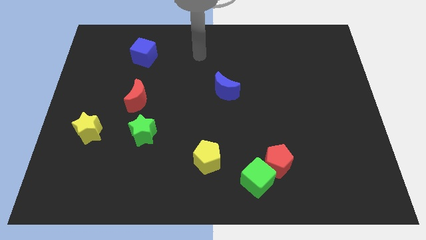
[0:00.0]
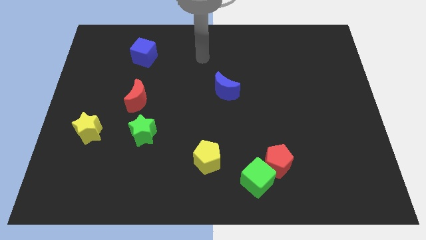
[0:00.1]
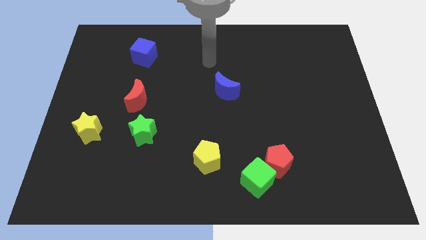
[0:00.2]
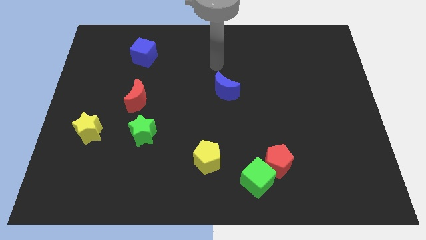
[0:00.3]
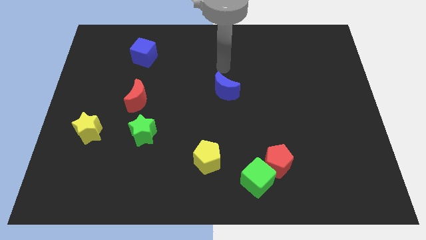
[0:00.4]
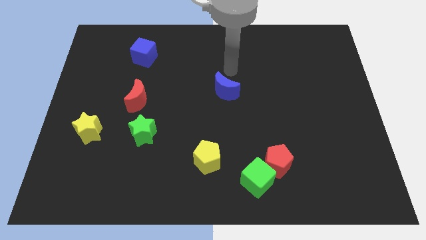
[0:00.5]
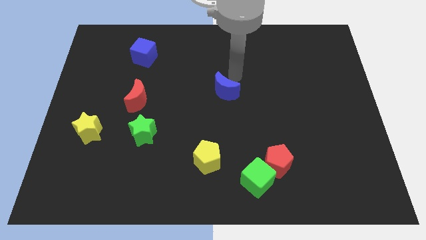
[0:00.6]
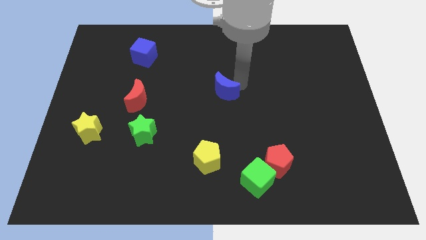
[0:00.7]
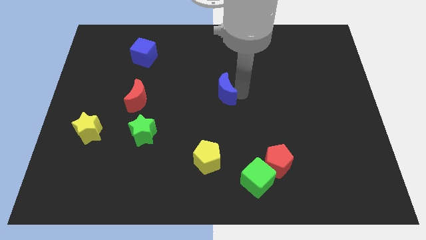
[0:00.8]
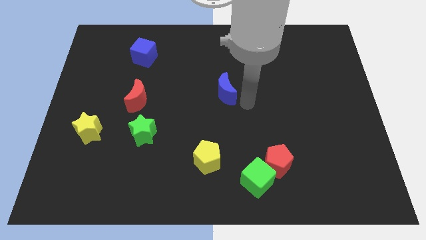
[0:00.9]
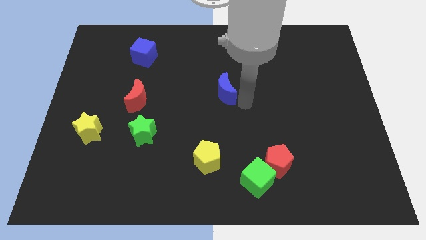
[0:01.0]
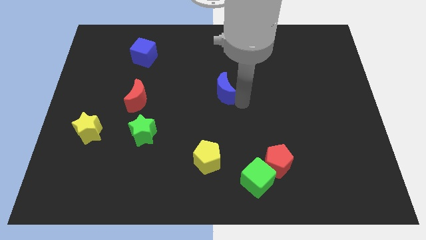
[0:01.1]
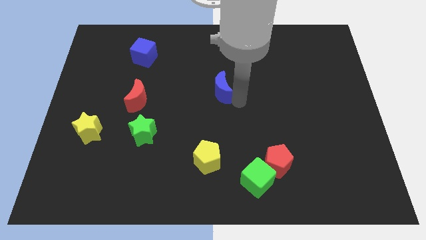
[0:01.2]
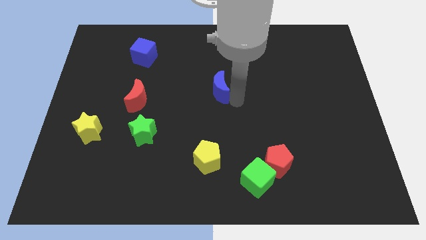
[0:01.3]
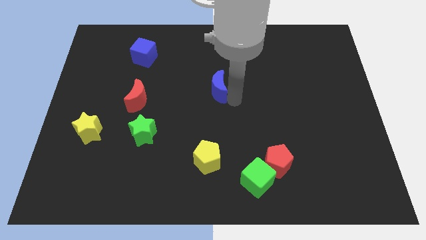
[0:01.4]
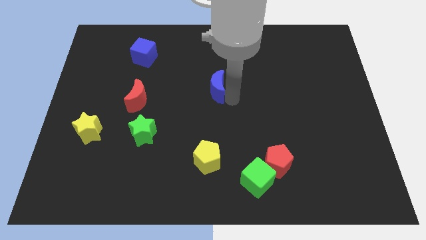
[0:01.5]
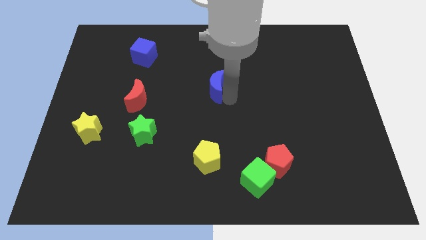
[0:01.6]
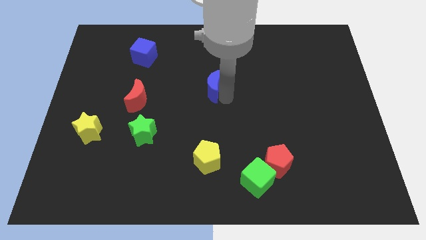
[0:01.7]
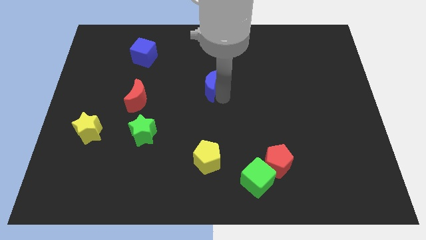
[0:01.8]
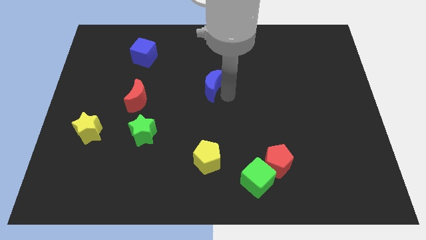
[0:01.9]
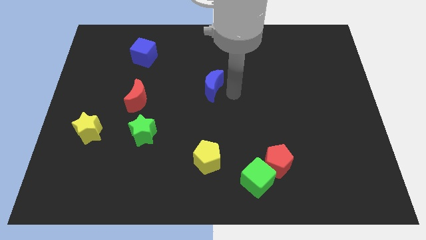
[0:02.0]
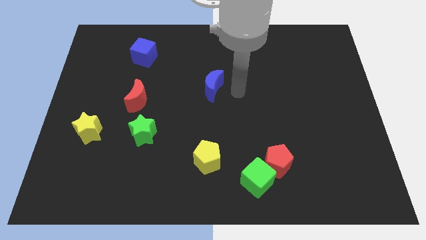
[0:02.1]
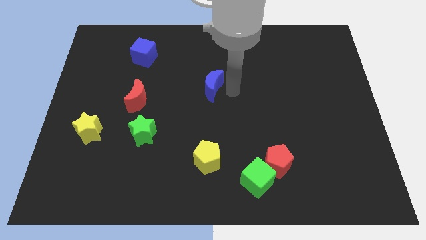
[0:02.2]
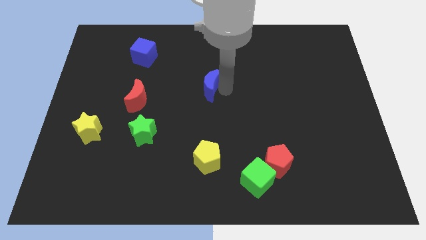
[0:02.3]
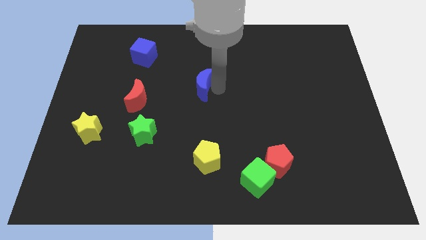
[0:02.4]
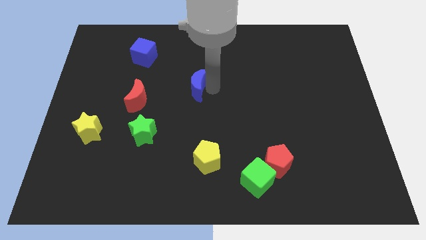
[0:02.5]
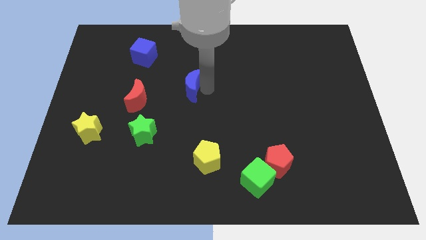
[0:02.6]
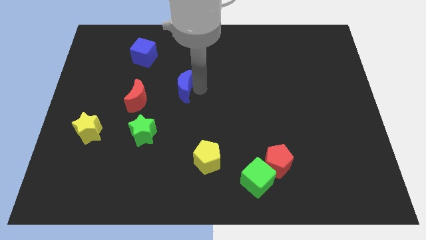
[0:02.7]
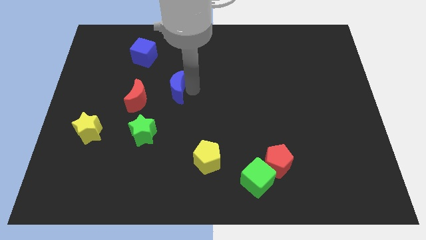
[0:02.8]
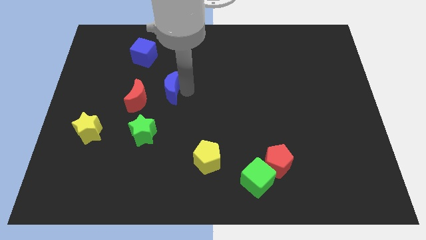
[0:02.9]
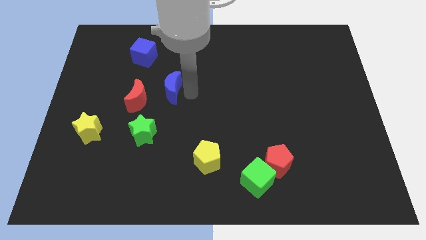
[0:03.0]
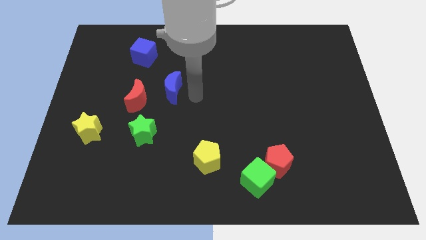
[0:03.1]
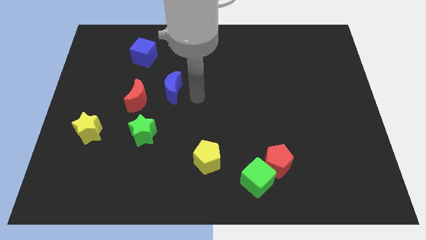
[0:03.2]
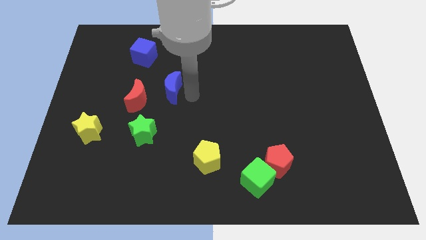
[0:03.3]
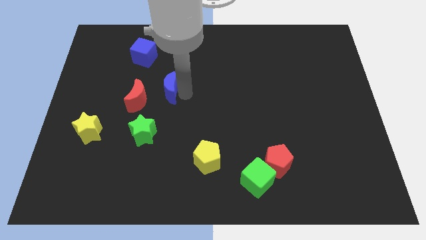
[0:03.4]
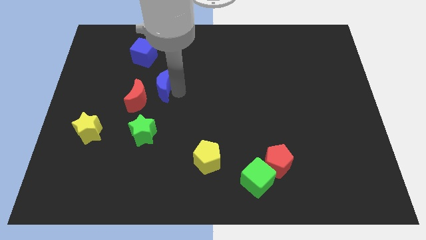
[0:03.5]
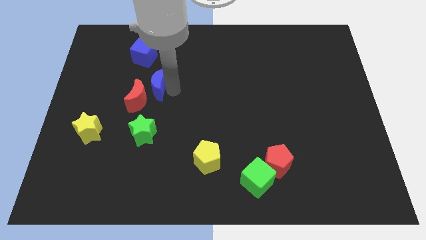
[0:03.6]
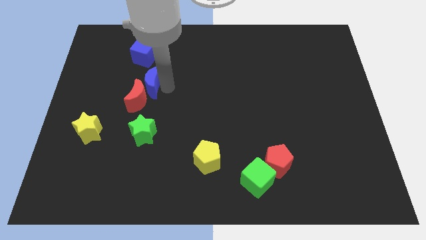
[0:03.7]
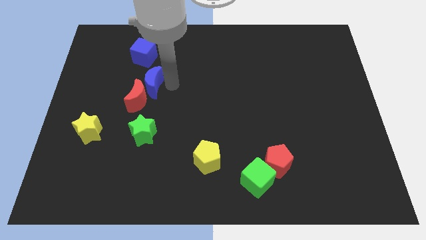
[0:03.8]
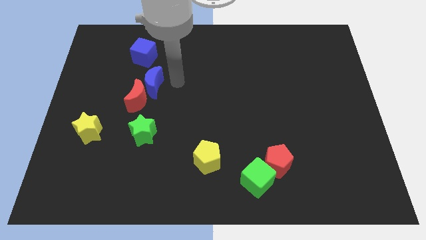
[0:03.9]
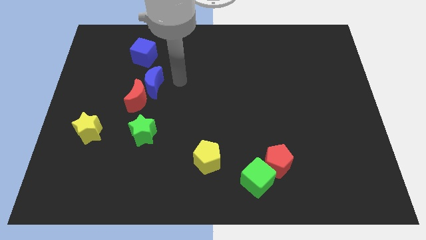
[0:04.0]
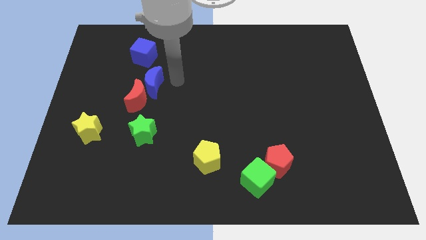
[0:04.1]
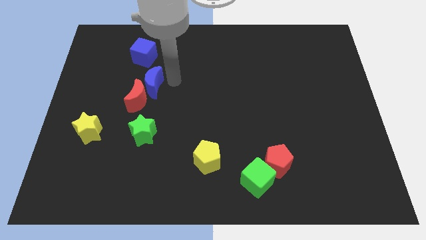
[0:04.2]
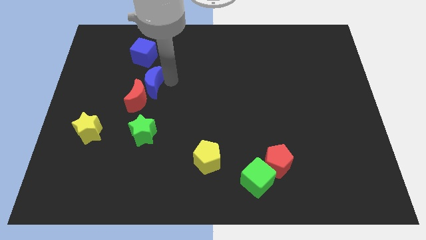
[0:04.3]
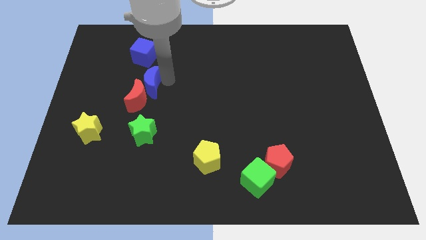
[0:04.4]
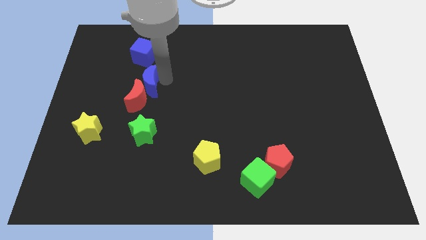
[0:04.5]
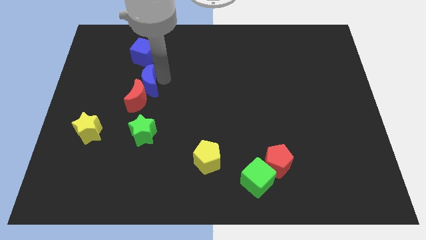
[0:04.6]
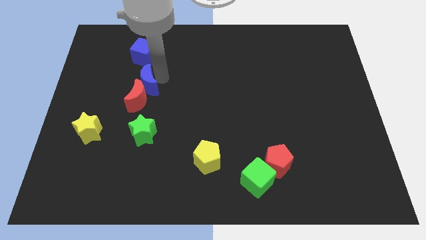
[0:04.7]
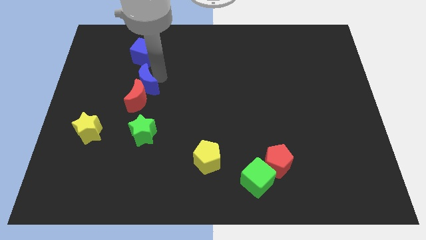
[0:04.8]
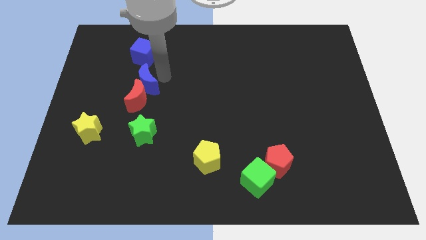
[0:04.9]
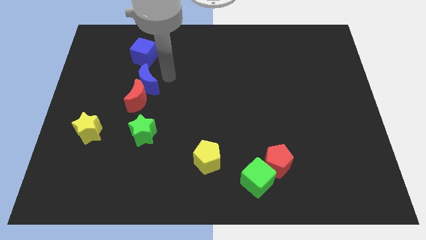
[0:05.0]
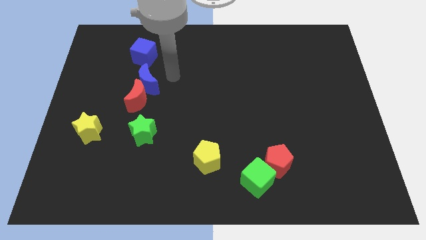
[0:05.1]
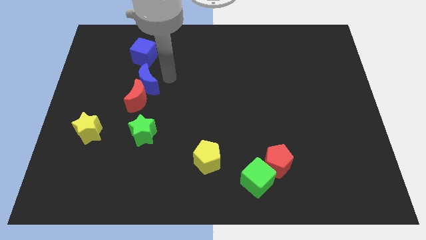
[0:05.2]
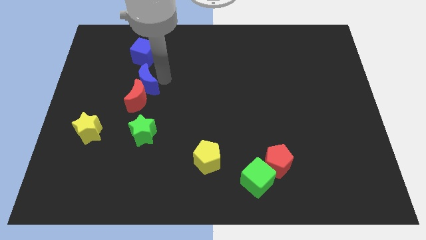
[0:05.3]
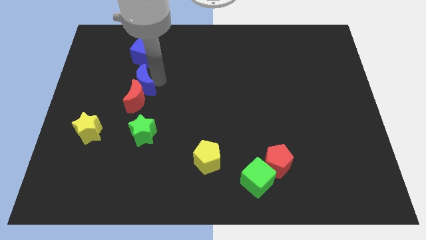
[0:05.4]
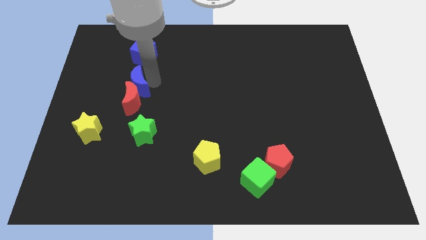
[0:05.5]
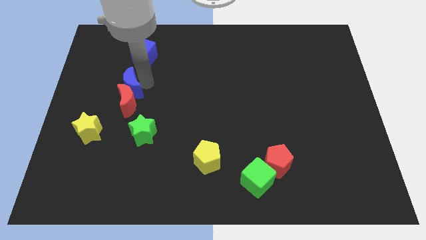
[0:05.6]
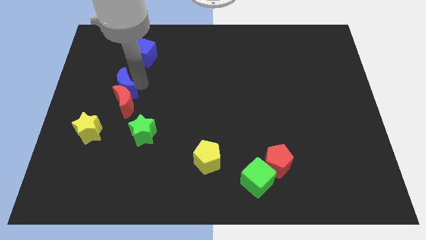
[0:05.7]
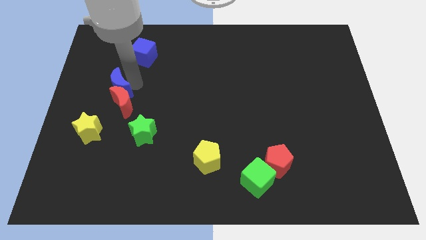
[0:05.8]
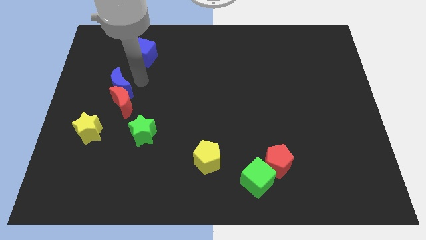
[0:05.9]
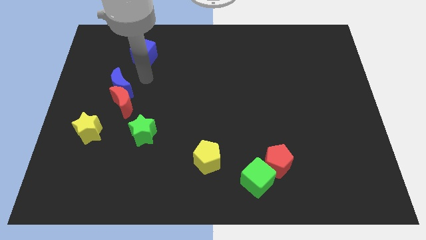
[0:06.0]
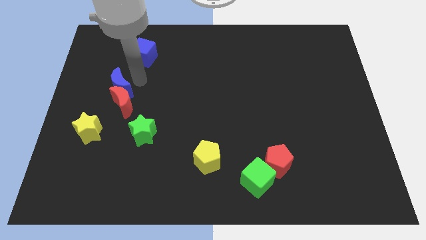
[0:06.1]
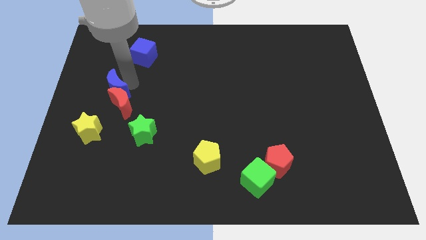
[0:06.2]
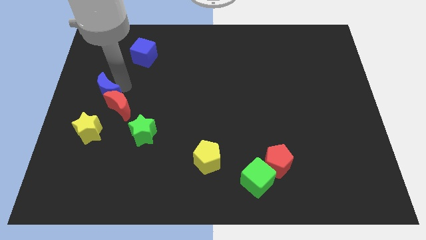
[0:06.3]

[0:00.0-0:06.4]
push the blue moon to the left of the red moon

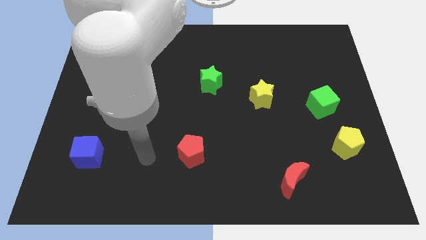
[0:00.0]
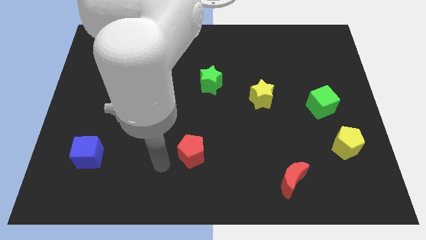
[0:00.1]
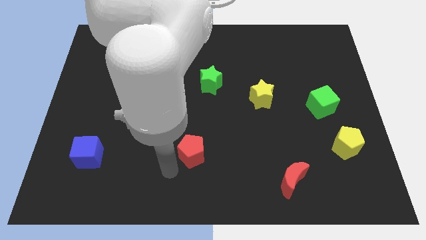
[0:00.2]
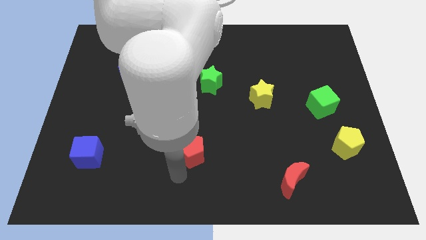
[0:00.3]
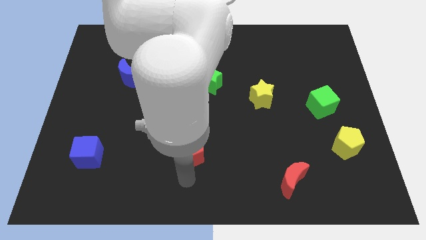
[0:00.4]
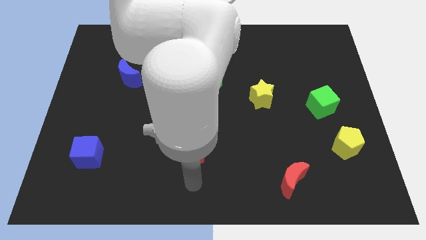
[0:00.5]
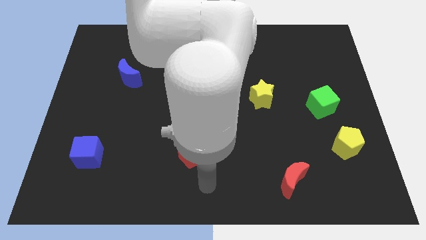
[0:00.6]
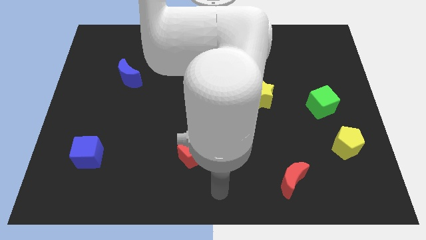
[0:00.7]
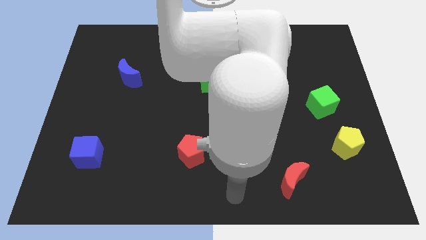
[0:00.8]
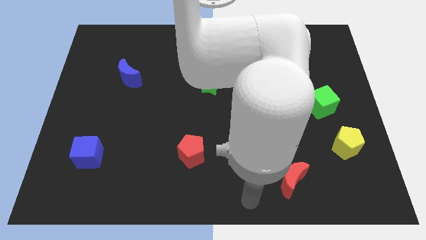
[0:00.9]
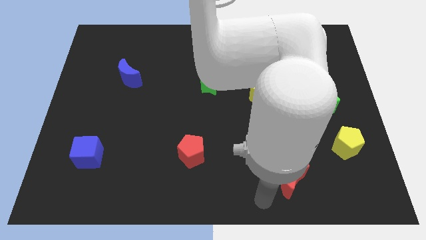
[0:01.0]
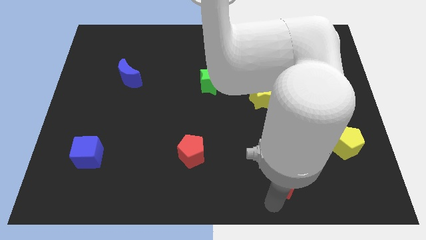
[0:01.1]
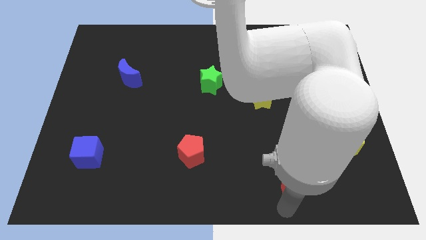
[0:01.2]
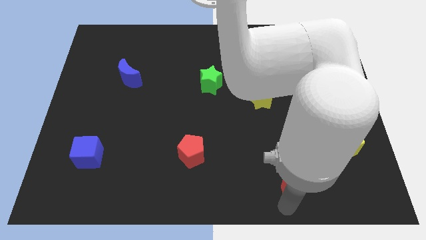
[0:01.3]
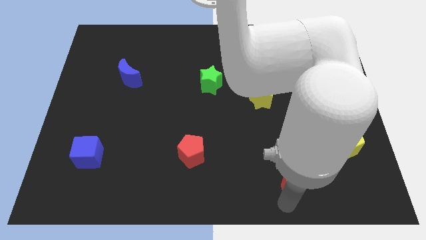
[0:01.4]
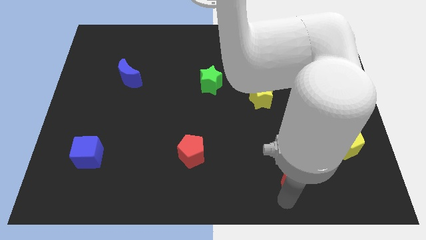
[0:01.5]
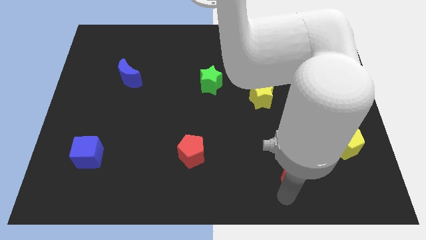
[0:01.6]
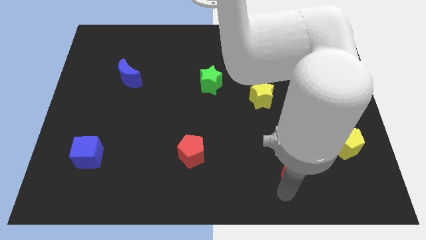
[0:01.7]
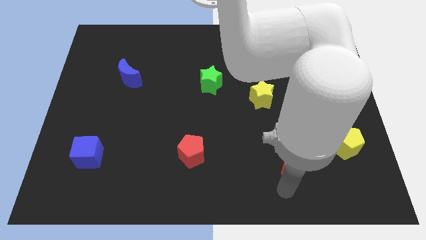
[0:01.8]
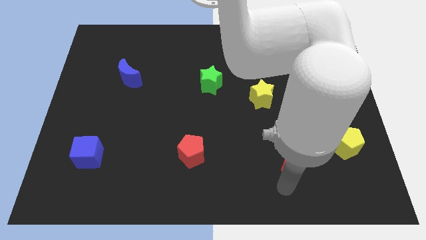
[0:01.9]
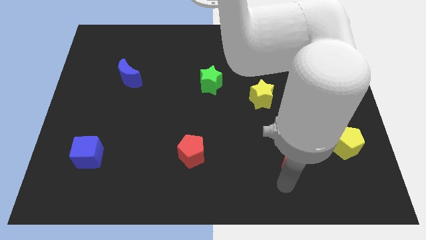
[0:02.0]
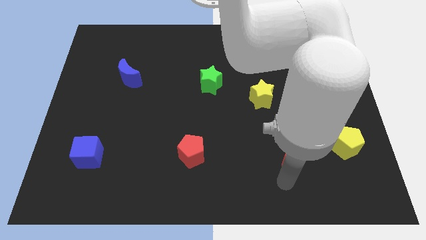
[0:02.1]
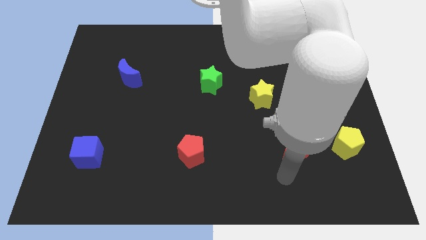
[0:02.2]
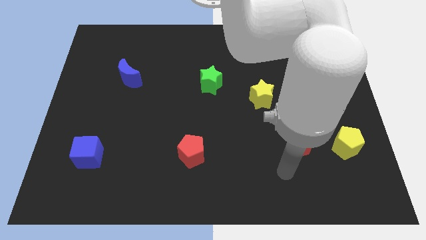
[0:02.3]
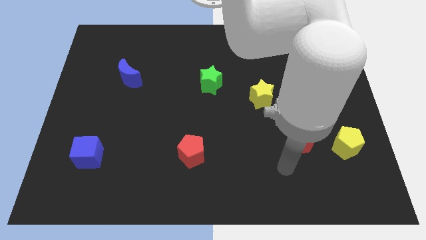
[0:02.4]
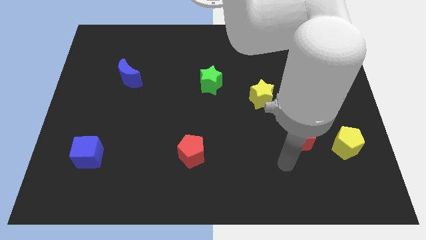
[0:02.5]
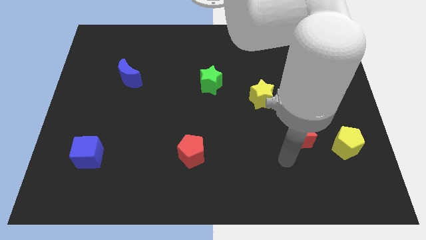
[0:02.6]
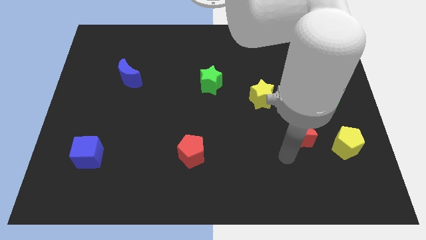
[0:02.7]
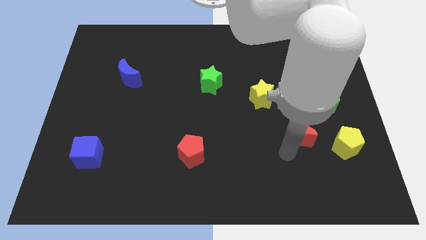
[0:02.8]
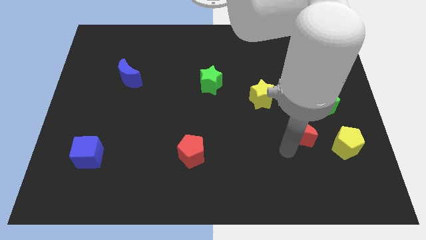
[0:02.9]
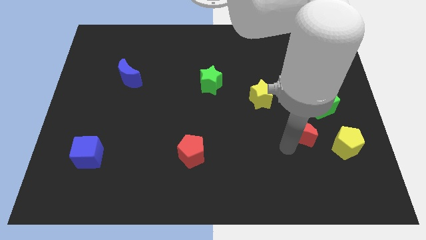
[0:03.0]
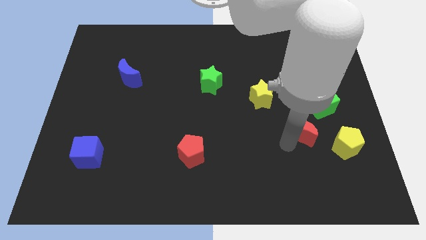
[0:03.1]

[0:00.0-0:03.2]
move the red moon to the top left of the yellow pentagon
